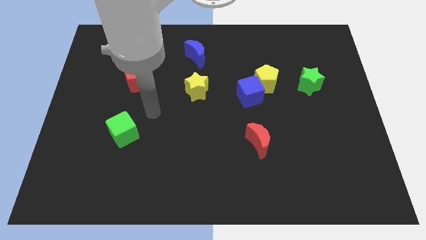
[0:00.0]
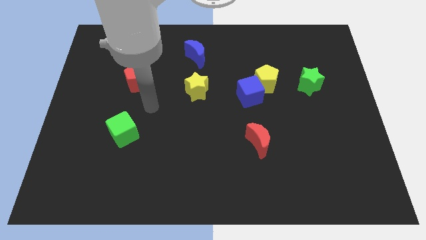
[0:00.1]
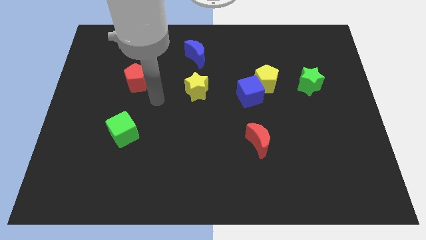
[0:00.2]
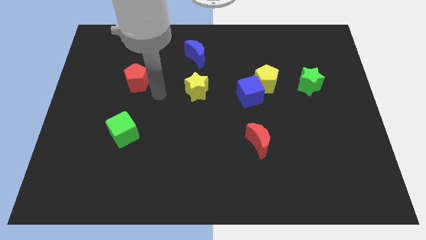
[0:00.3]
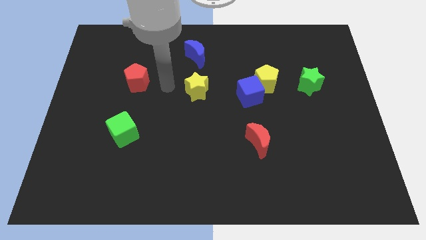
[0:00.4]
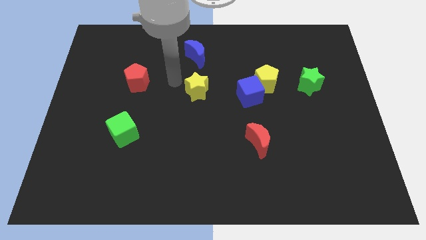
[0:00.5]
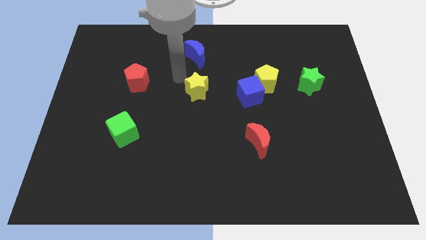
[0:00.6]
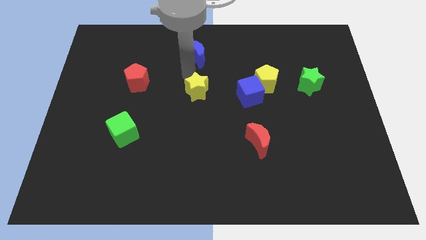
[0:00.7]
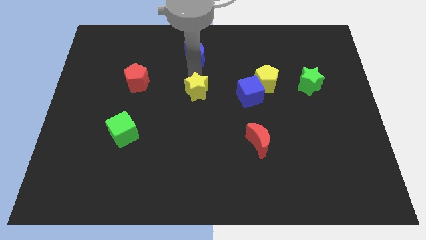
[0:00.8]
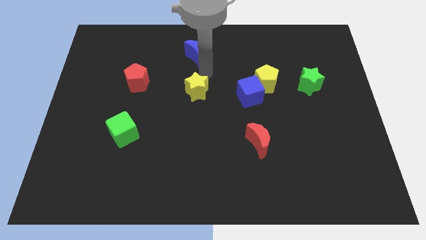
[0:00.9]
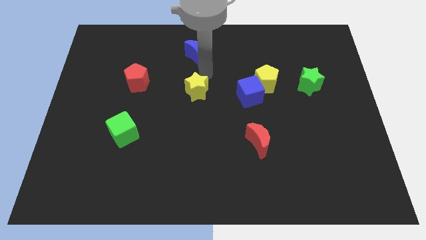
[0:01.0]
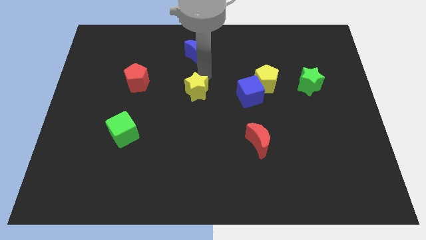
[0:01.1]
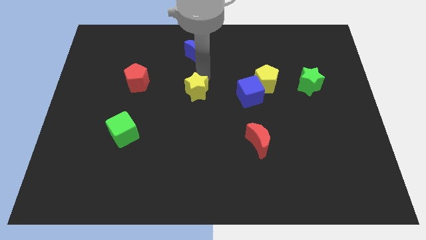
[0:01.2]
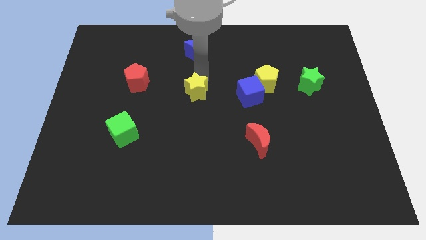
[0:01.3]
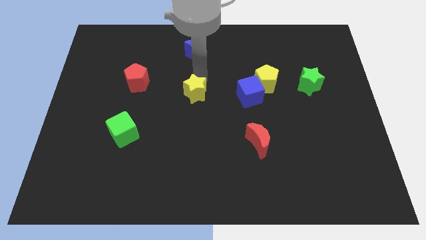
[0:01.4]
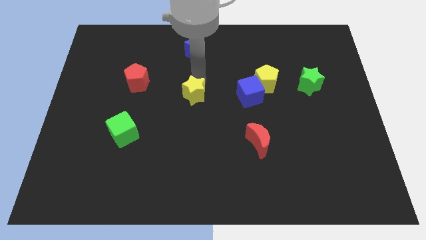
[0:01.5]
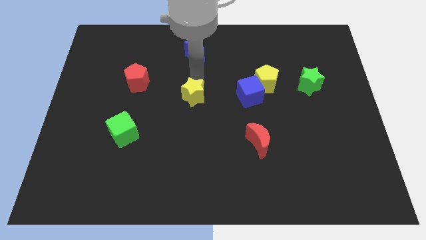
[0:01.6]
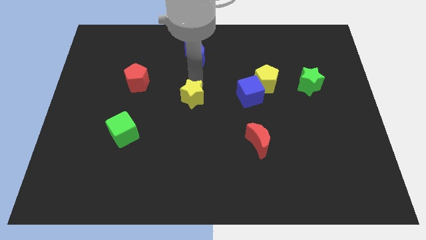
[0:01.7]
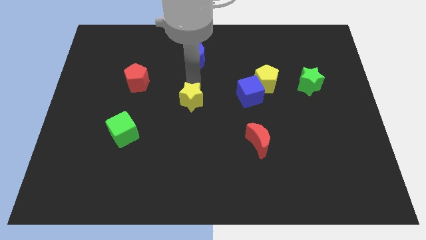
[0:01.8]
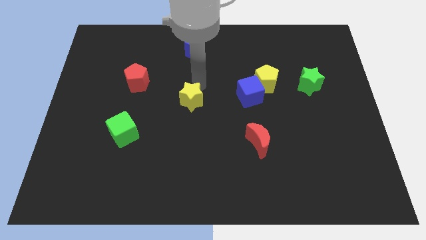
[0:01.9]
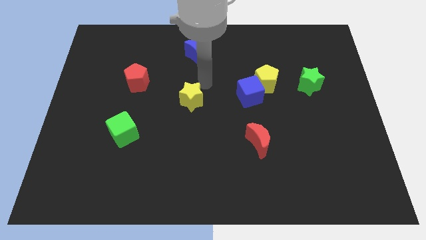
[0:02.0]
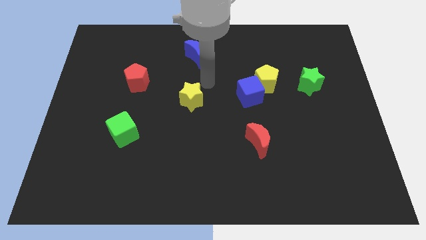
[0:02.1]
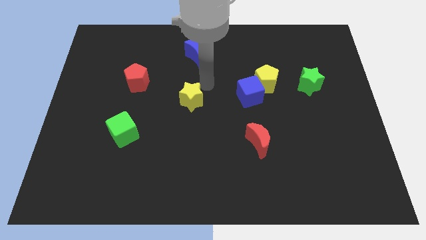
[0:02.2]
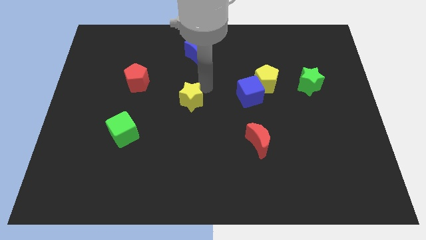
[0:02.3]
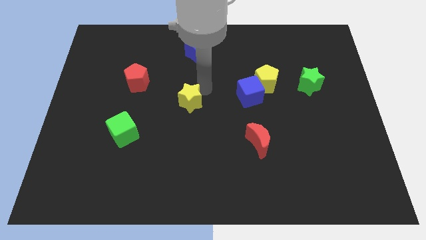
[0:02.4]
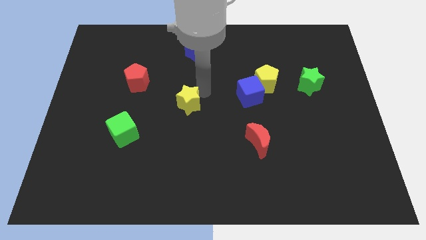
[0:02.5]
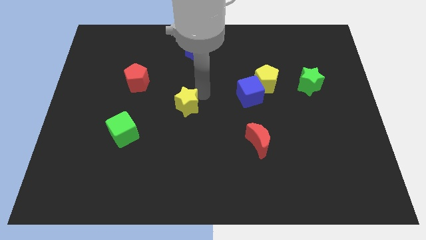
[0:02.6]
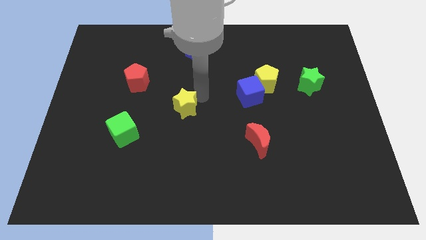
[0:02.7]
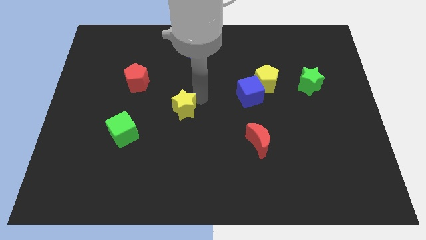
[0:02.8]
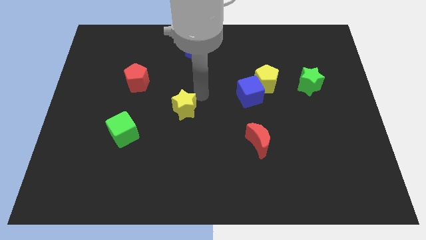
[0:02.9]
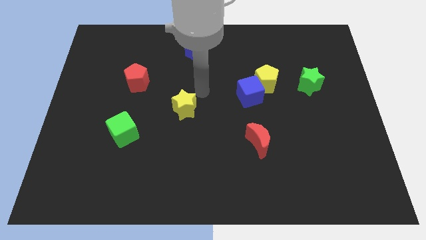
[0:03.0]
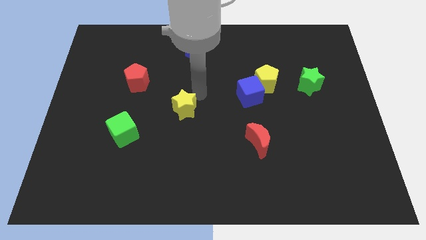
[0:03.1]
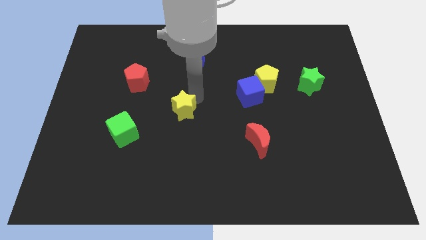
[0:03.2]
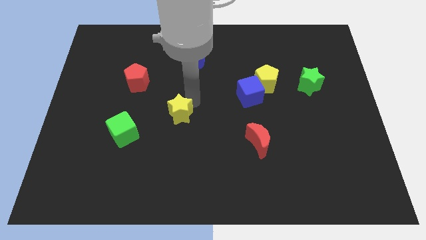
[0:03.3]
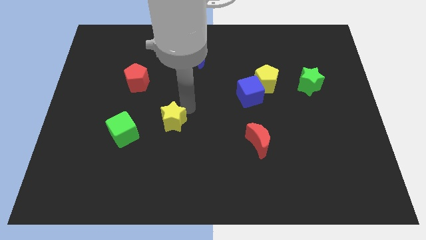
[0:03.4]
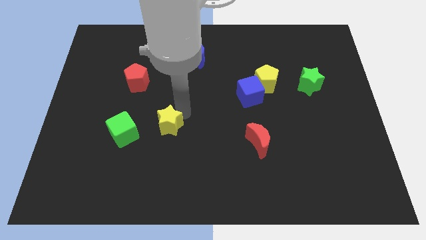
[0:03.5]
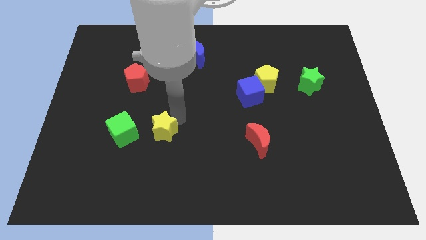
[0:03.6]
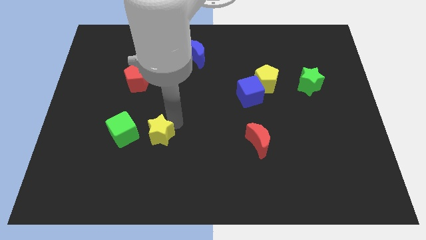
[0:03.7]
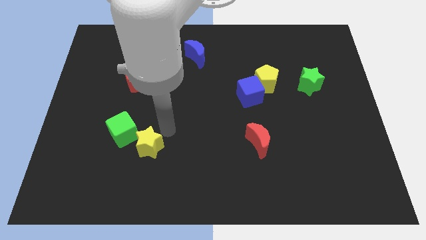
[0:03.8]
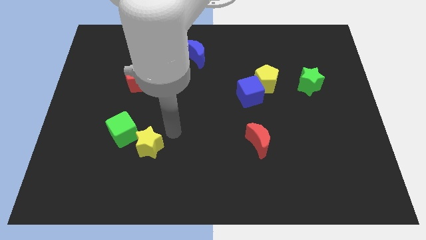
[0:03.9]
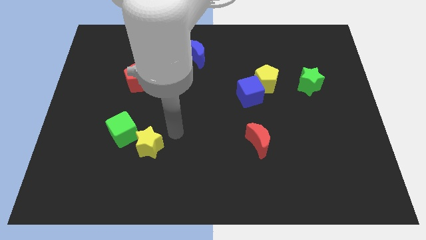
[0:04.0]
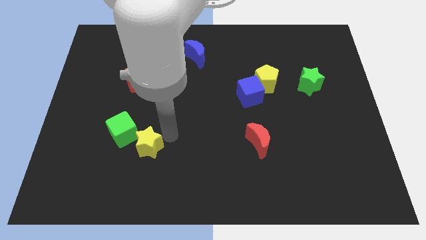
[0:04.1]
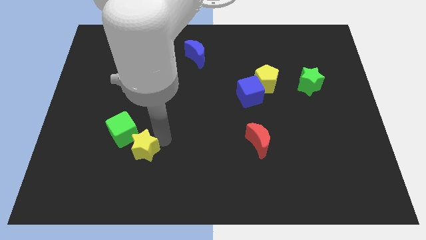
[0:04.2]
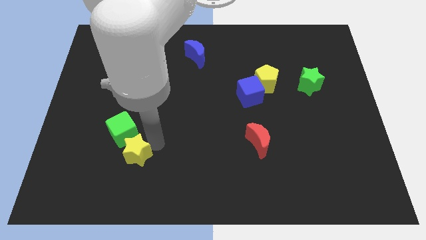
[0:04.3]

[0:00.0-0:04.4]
move the yellow star down and left

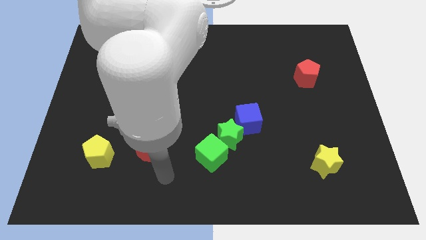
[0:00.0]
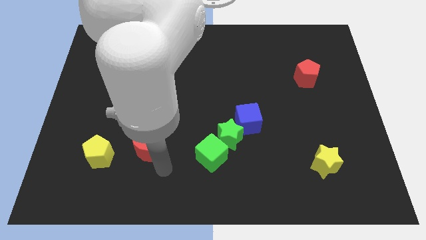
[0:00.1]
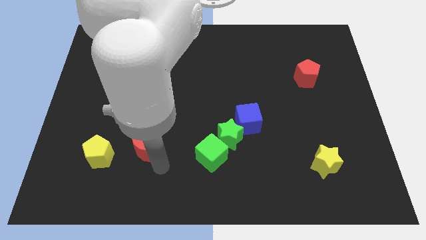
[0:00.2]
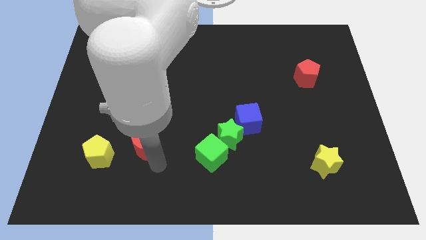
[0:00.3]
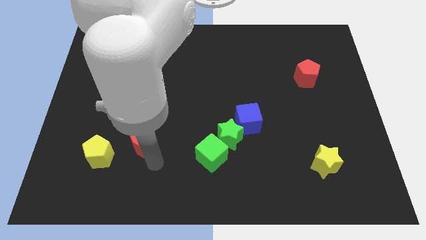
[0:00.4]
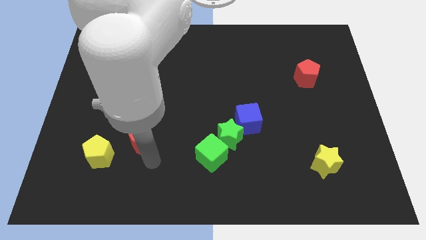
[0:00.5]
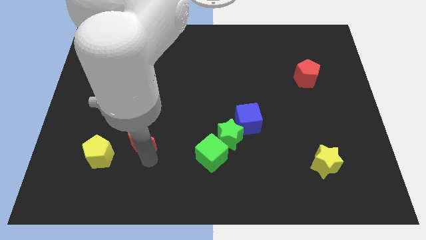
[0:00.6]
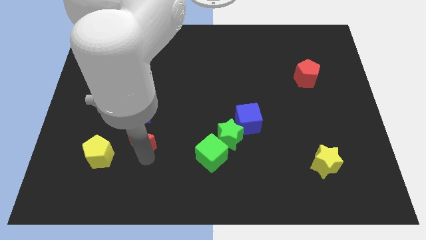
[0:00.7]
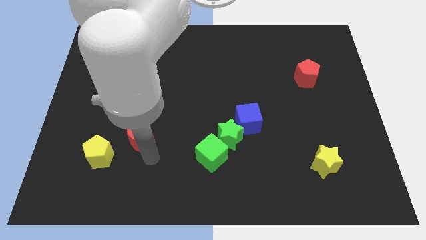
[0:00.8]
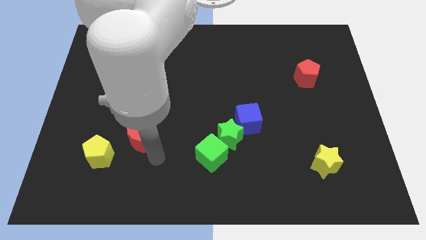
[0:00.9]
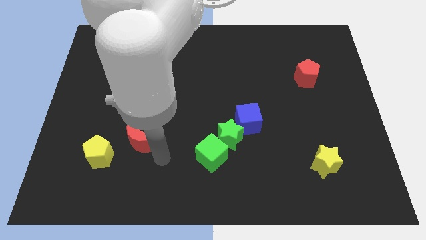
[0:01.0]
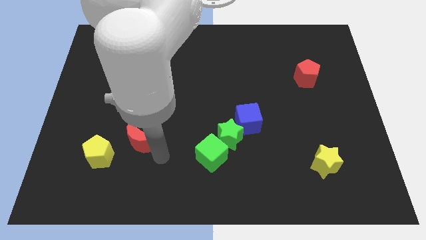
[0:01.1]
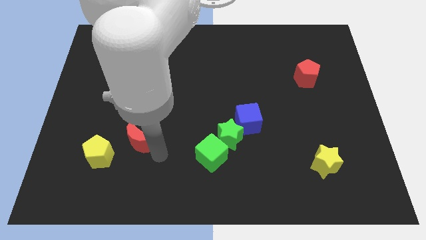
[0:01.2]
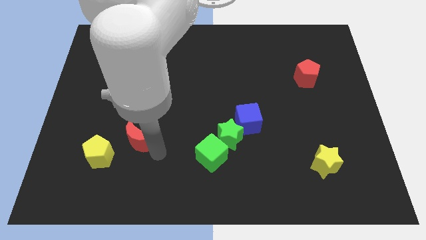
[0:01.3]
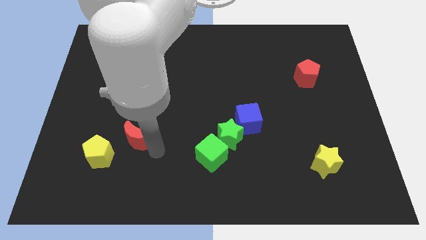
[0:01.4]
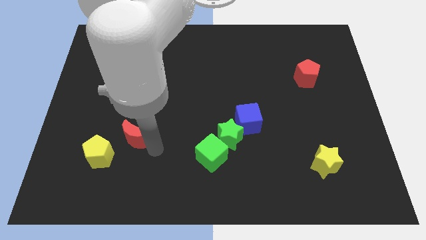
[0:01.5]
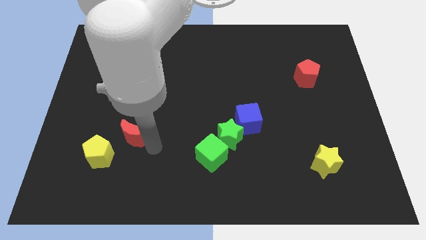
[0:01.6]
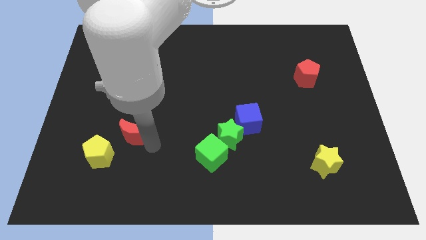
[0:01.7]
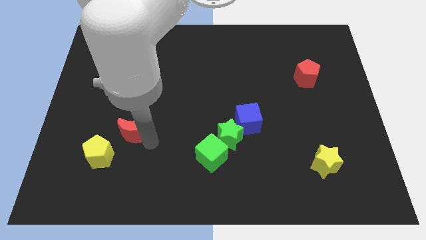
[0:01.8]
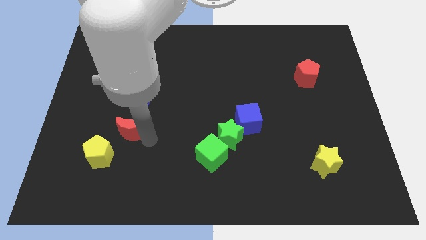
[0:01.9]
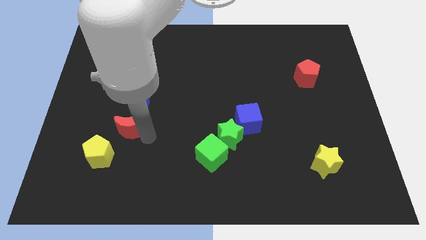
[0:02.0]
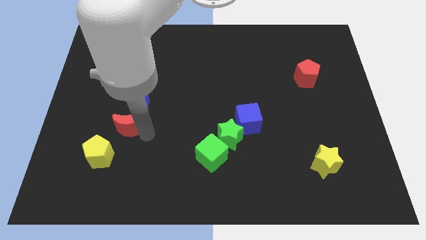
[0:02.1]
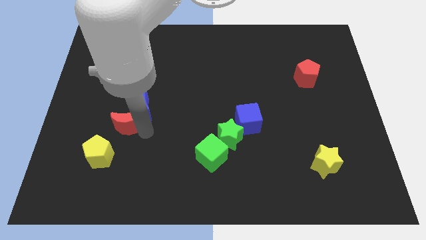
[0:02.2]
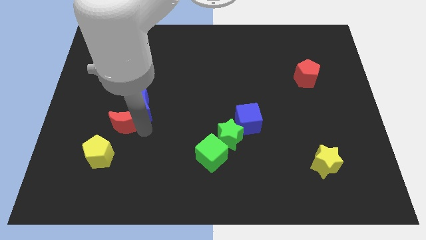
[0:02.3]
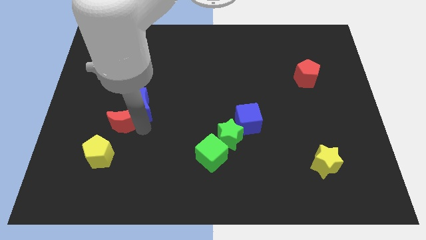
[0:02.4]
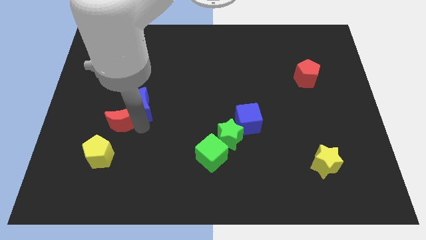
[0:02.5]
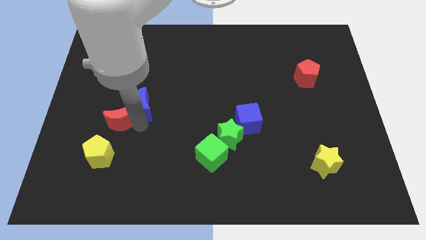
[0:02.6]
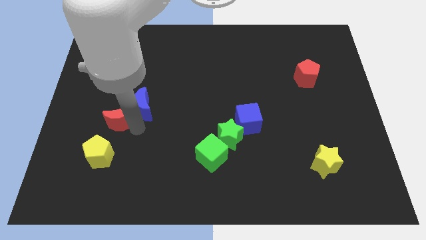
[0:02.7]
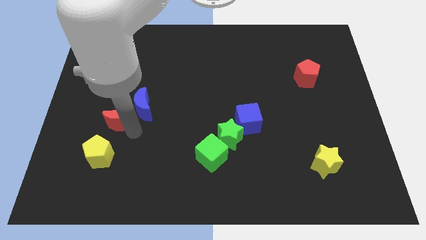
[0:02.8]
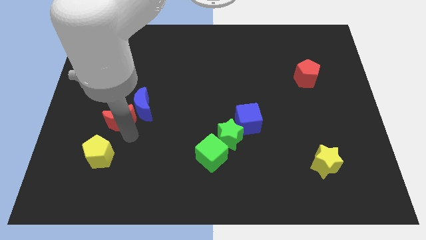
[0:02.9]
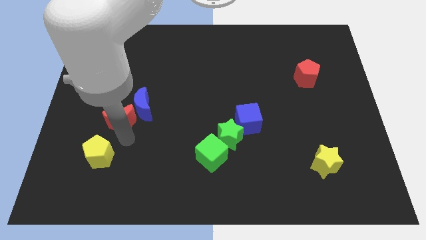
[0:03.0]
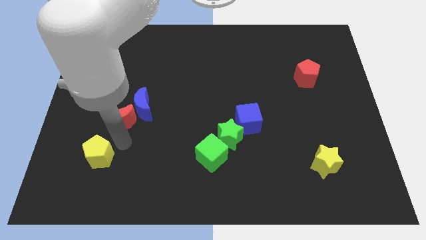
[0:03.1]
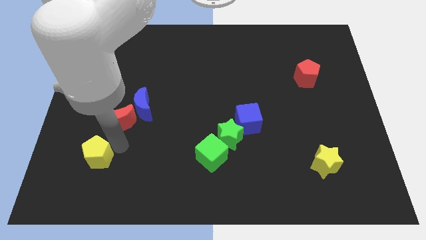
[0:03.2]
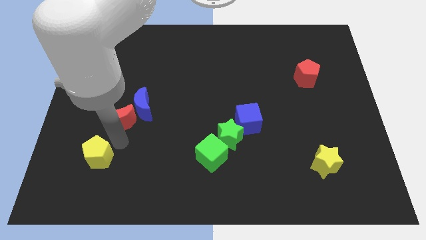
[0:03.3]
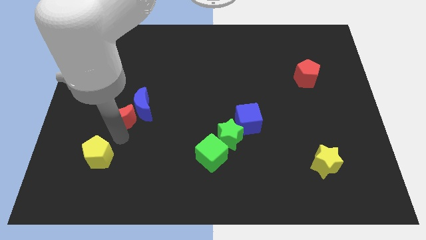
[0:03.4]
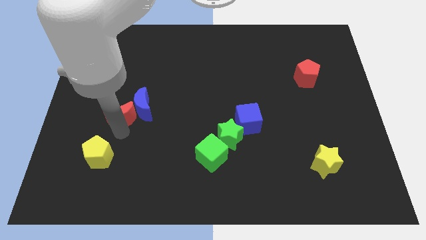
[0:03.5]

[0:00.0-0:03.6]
slide the red moon up somewhat

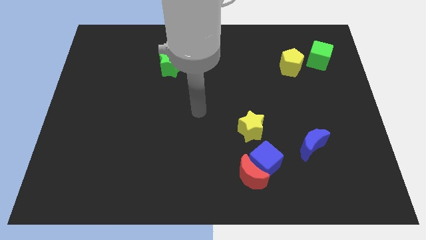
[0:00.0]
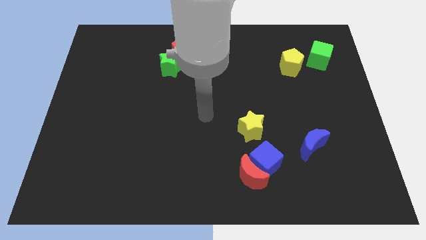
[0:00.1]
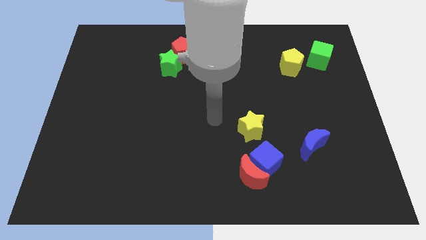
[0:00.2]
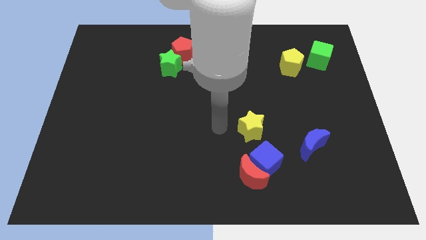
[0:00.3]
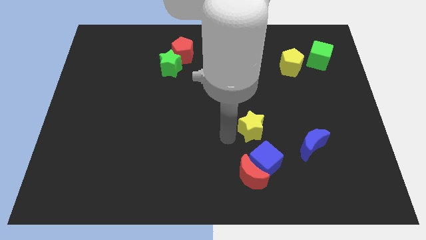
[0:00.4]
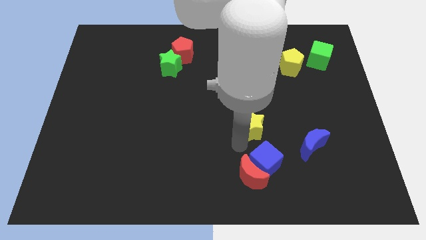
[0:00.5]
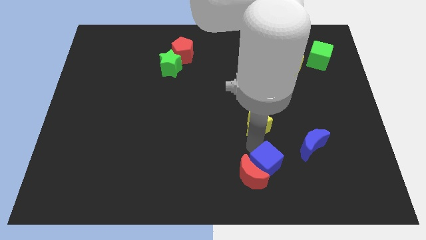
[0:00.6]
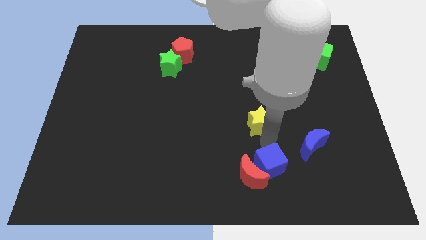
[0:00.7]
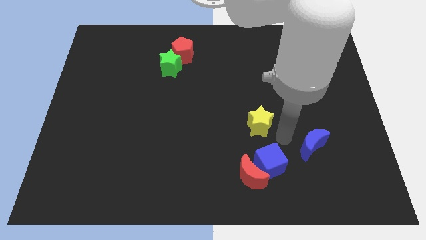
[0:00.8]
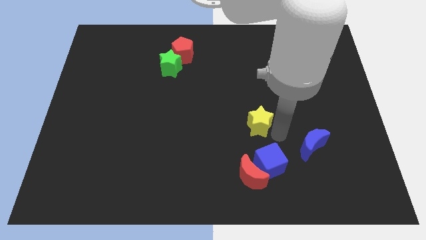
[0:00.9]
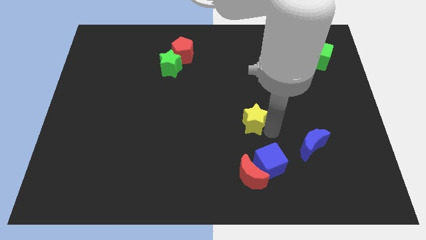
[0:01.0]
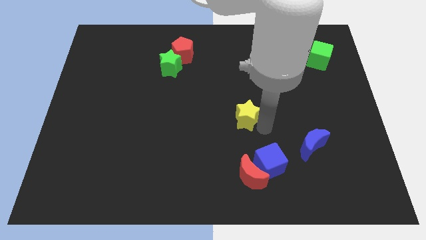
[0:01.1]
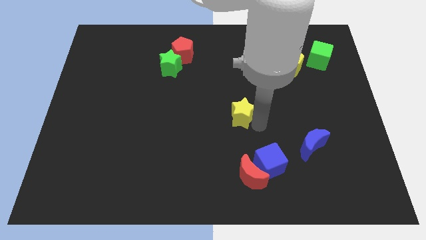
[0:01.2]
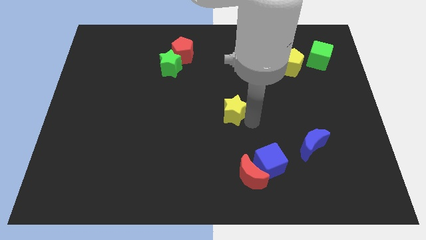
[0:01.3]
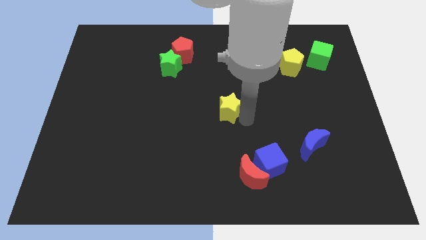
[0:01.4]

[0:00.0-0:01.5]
slightly push the yellow star up and left diagonally
